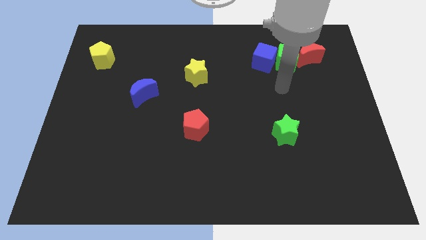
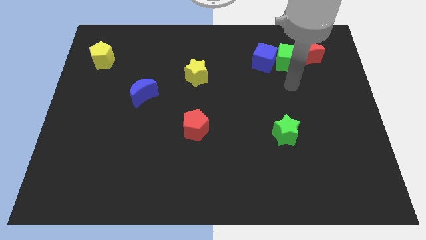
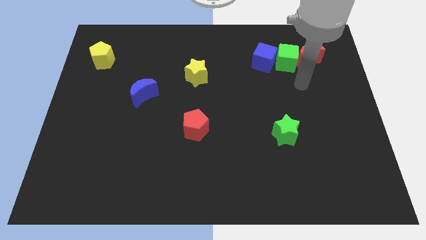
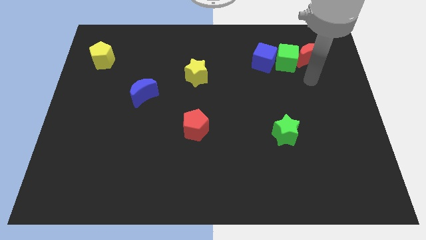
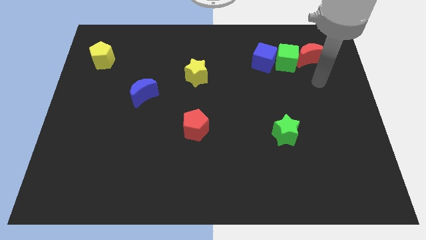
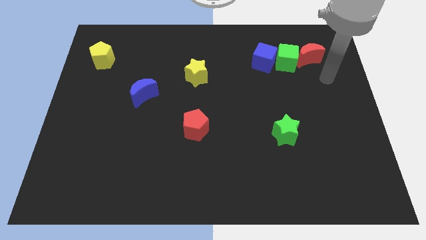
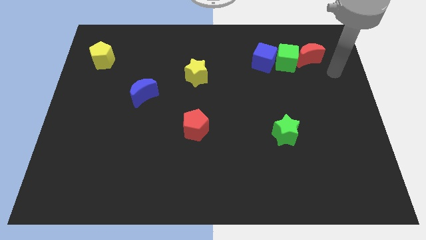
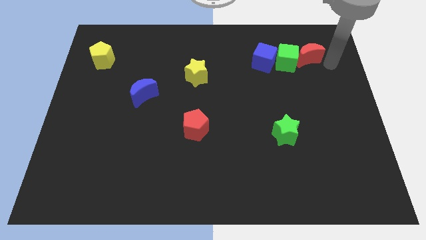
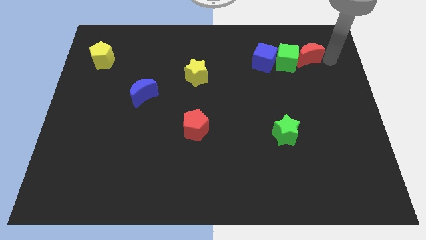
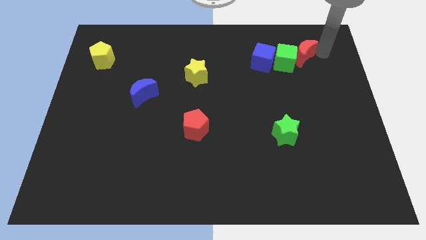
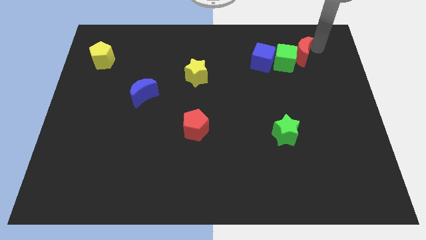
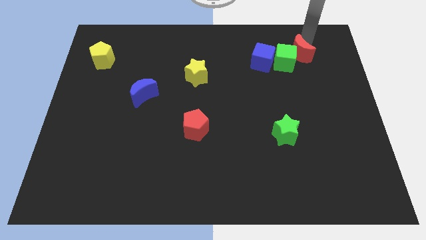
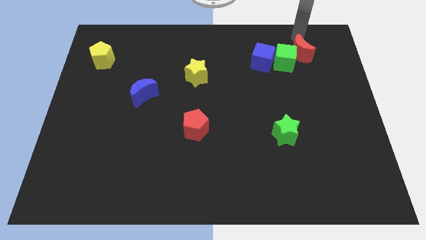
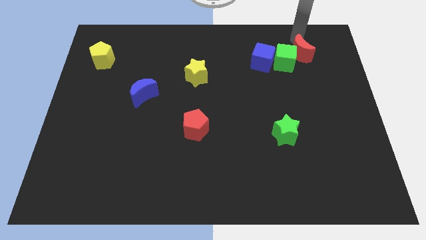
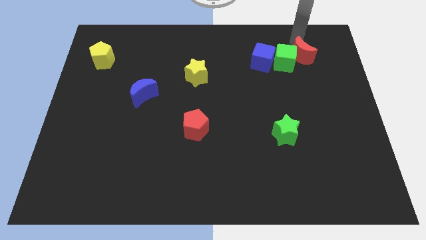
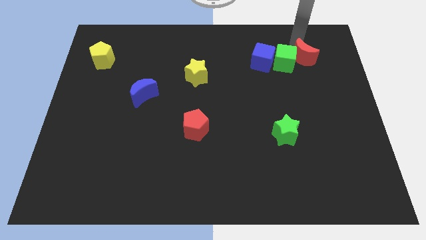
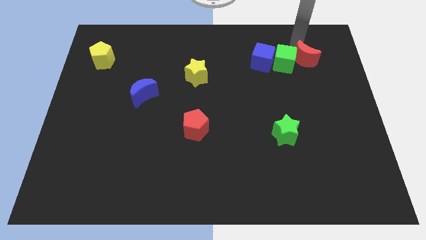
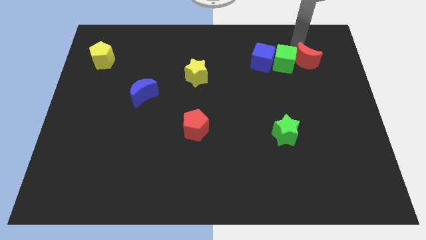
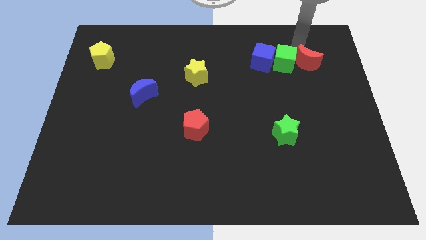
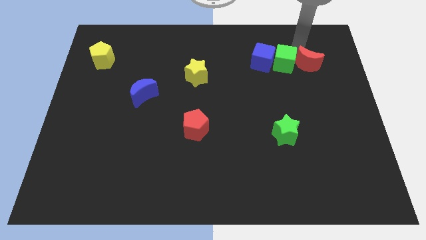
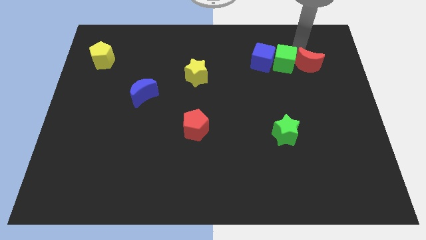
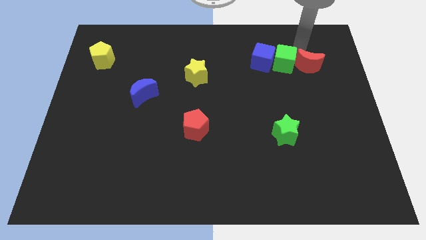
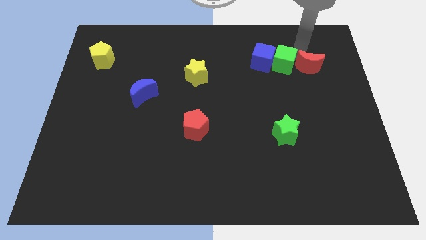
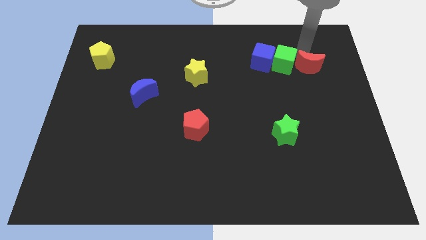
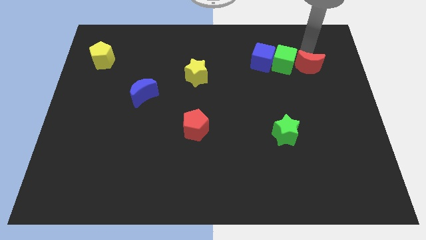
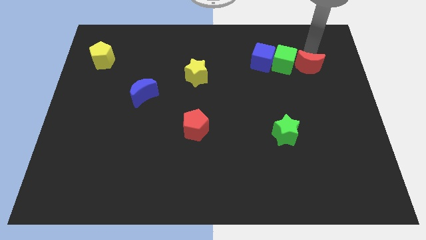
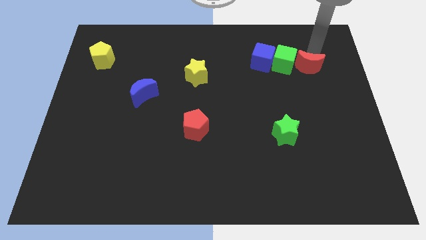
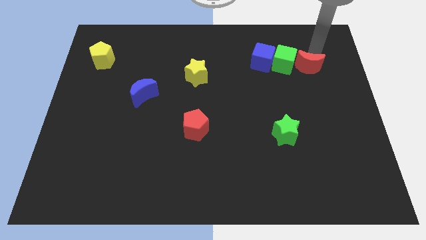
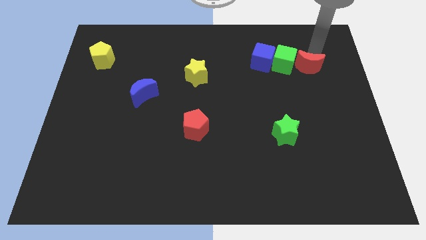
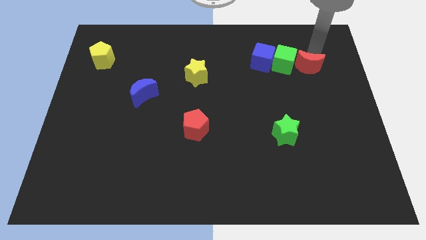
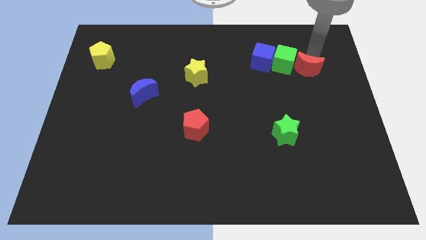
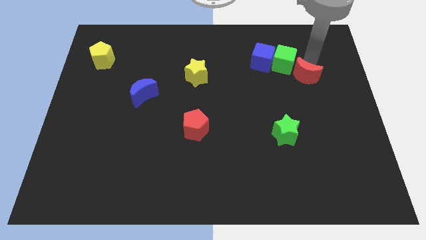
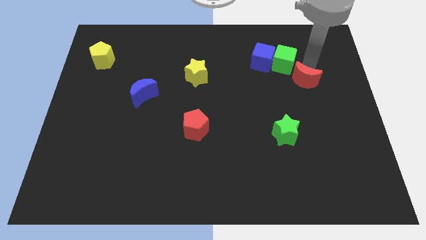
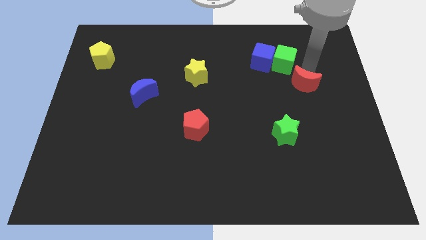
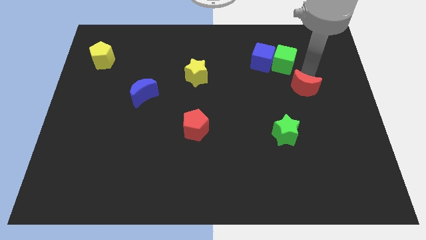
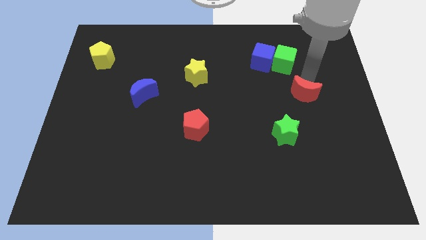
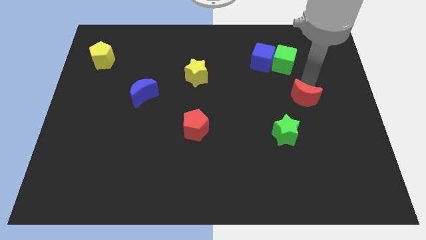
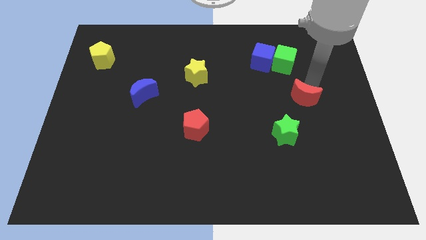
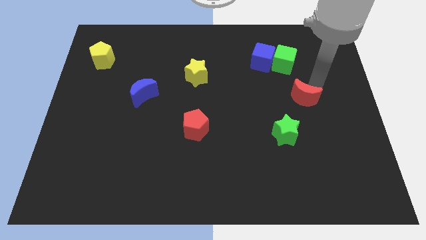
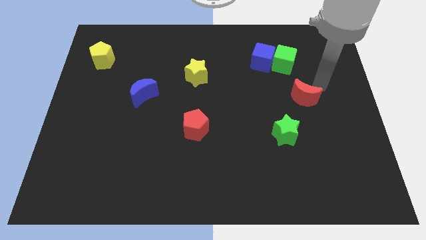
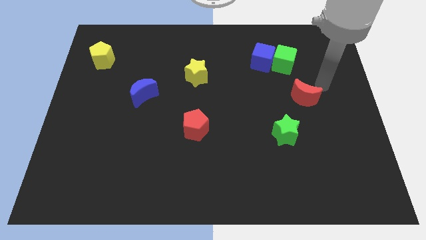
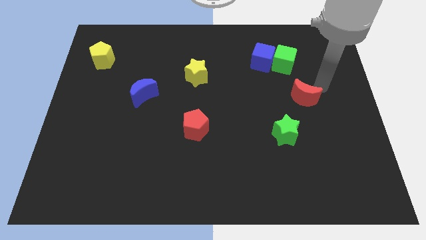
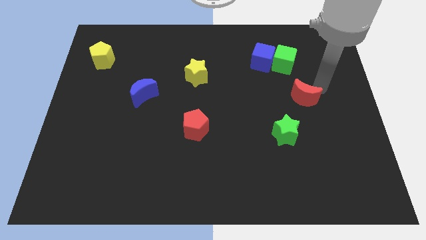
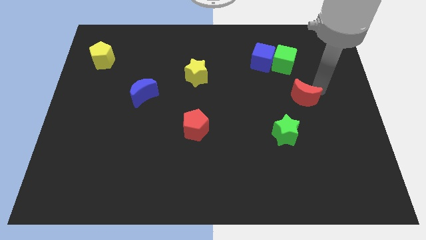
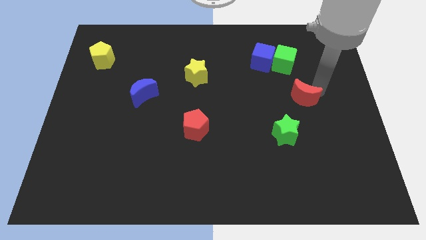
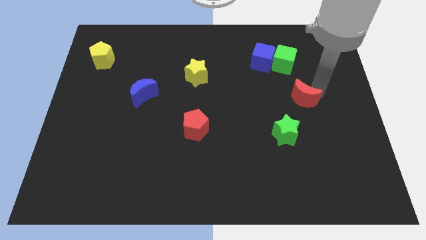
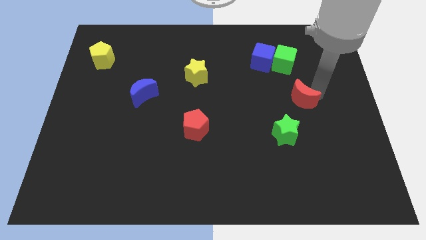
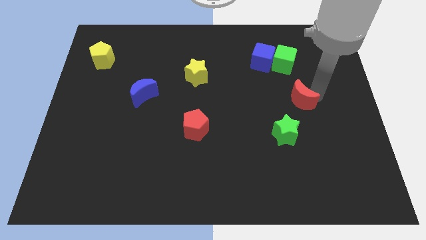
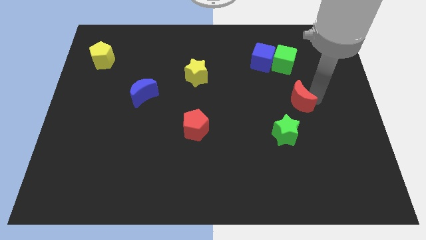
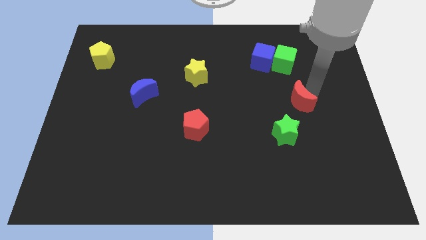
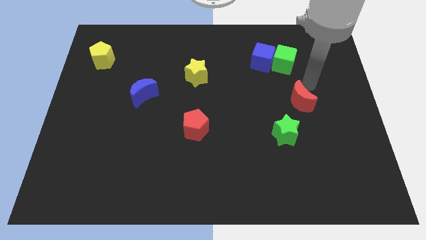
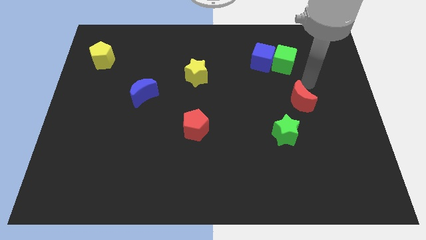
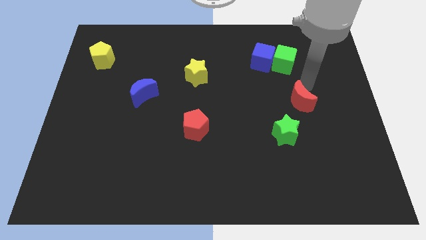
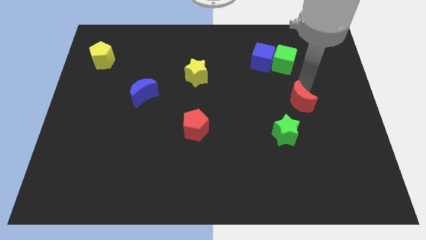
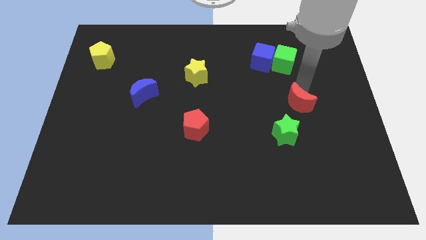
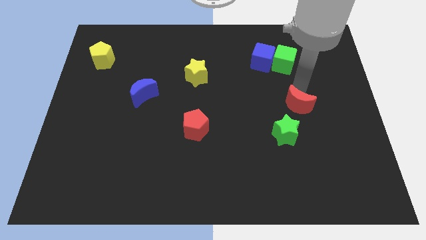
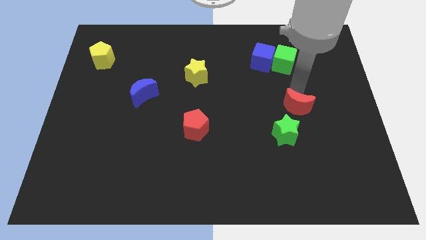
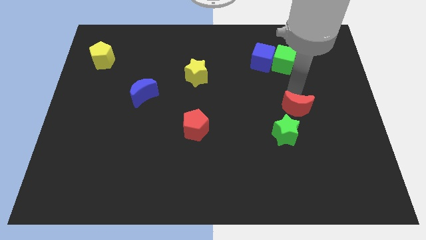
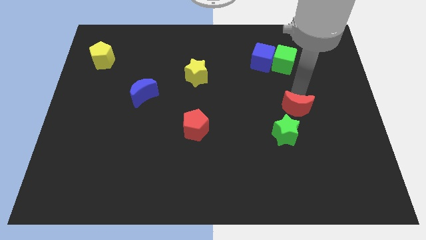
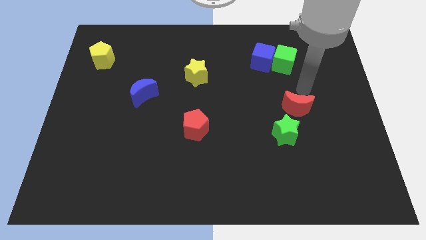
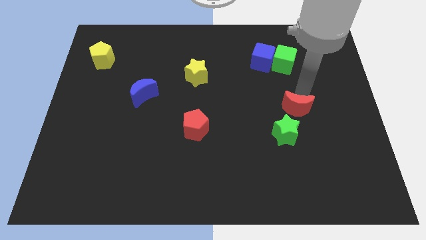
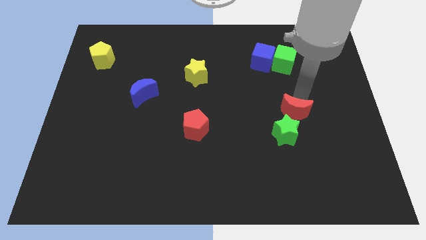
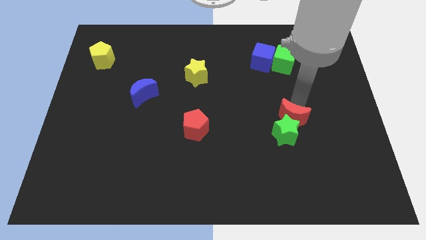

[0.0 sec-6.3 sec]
put the red moon next to the green star
